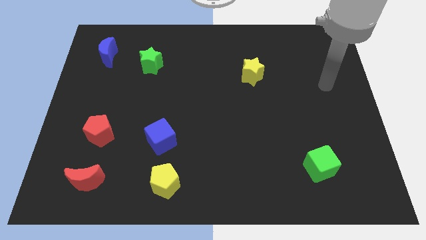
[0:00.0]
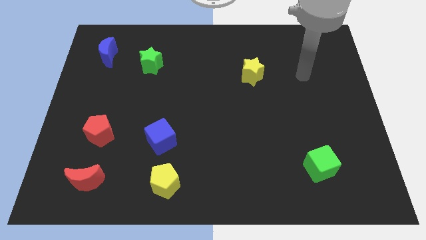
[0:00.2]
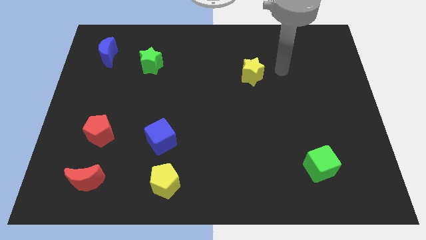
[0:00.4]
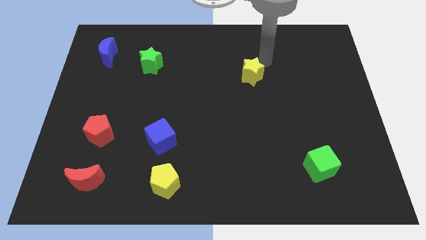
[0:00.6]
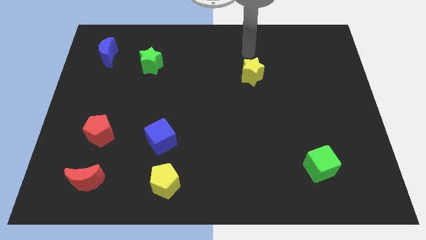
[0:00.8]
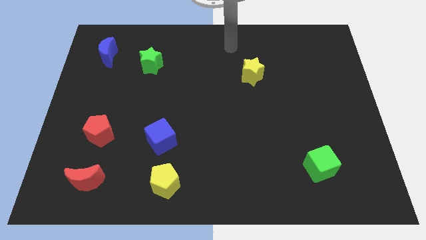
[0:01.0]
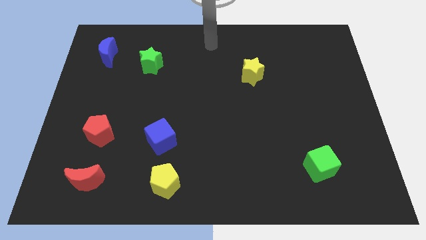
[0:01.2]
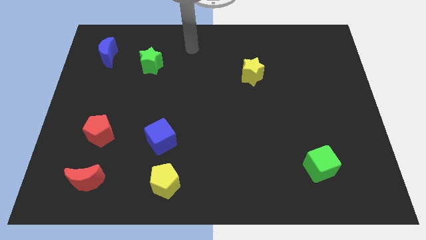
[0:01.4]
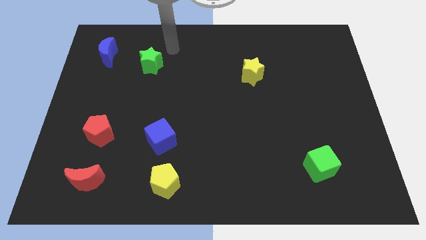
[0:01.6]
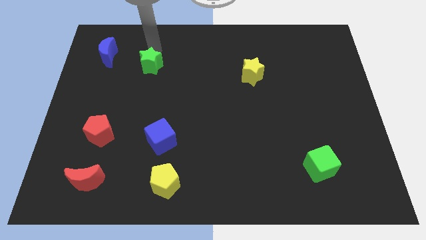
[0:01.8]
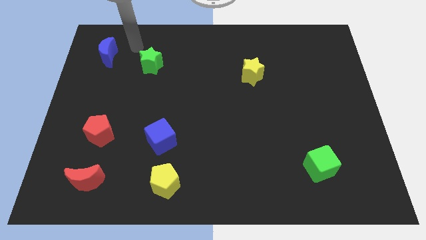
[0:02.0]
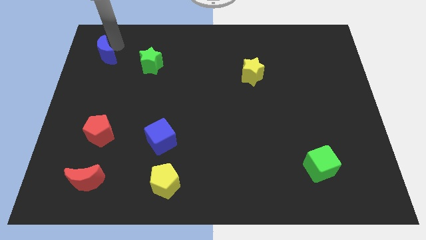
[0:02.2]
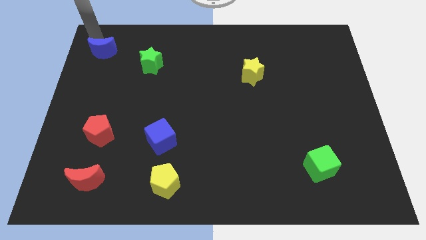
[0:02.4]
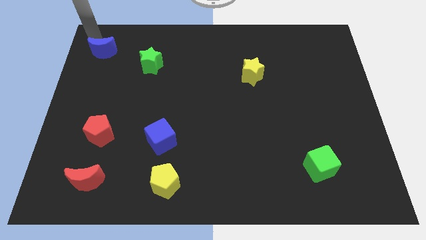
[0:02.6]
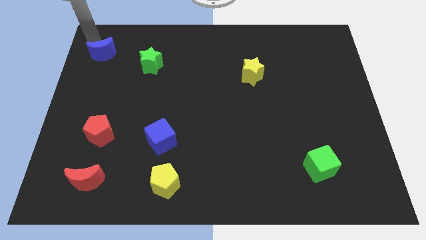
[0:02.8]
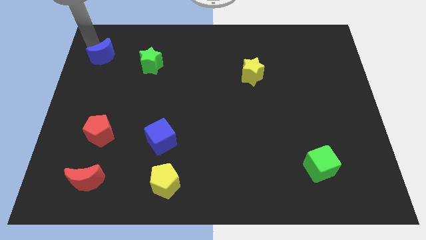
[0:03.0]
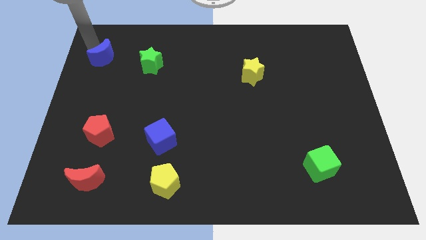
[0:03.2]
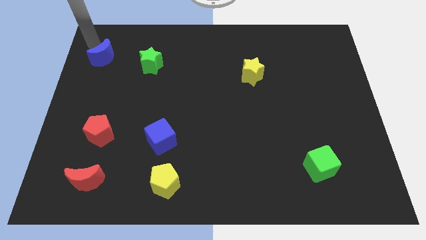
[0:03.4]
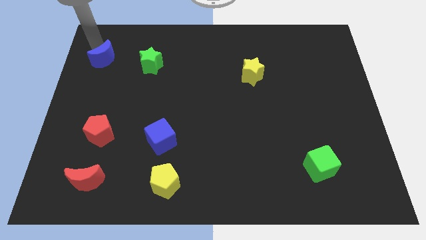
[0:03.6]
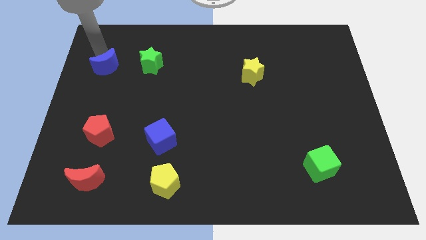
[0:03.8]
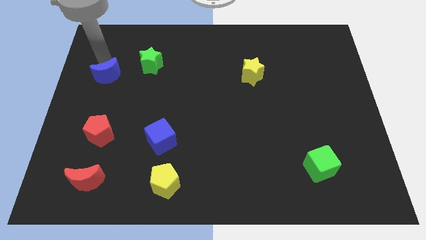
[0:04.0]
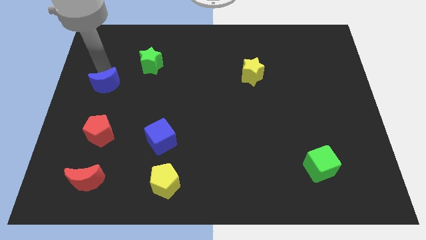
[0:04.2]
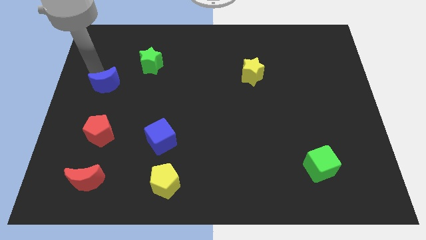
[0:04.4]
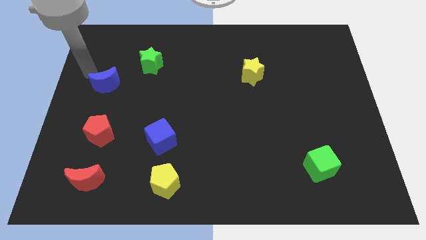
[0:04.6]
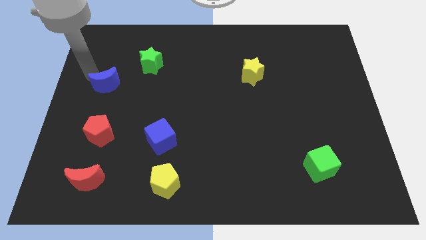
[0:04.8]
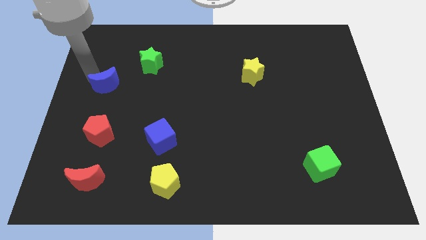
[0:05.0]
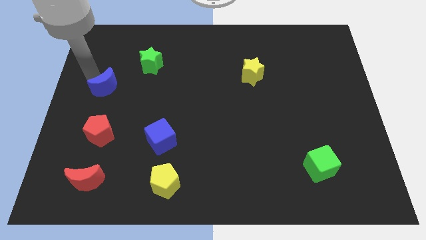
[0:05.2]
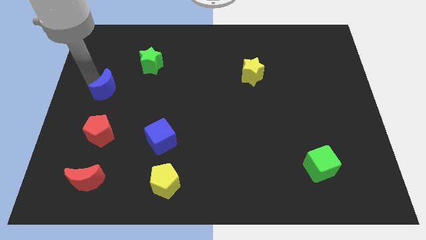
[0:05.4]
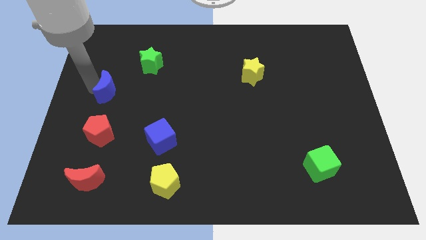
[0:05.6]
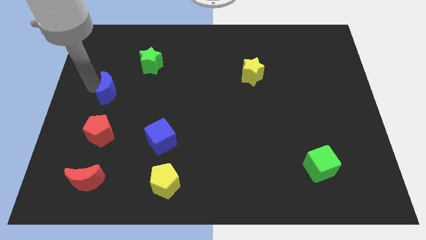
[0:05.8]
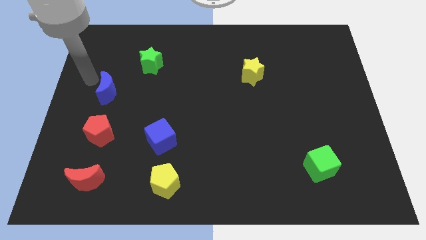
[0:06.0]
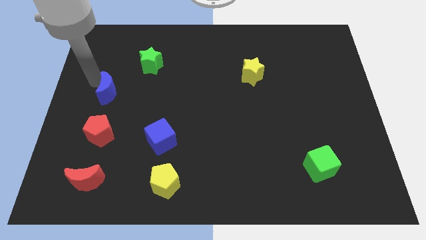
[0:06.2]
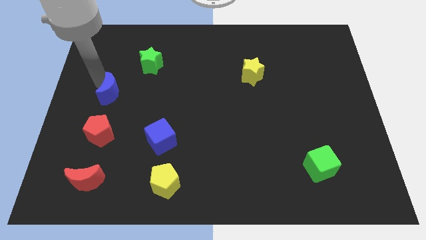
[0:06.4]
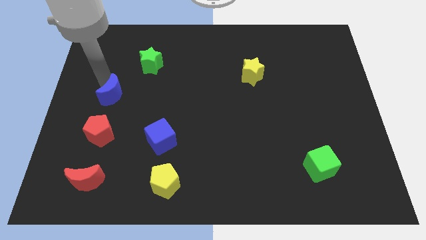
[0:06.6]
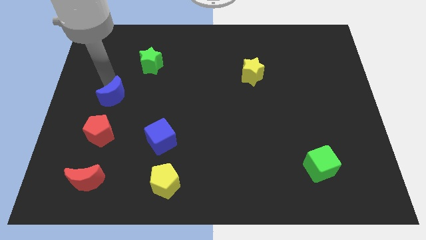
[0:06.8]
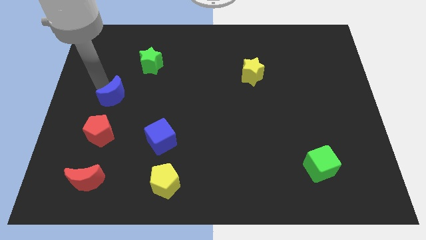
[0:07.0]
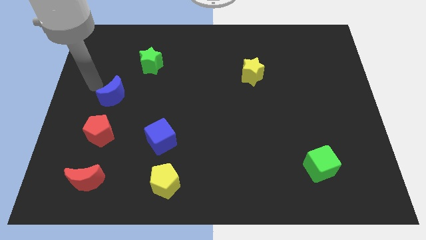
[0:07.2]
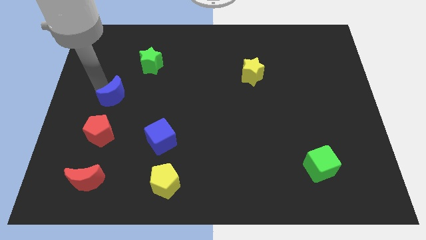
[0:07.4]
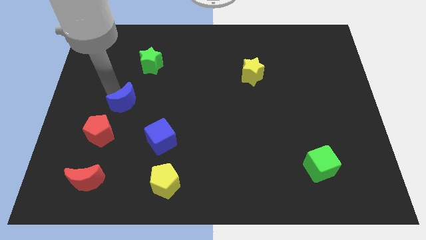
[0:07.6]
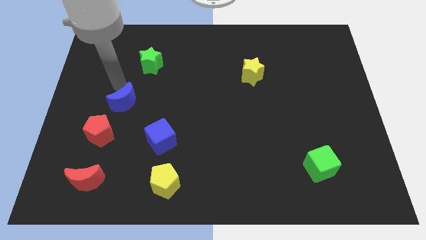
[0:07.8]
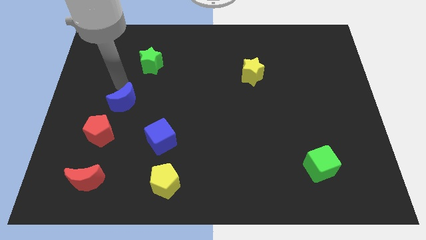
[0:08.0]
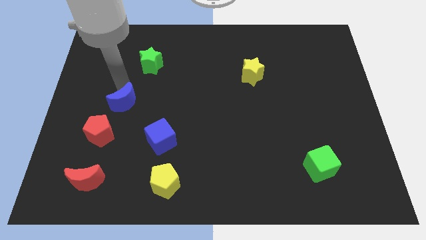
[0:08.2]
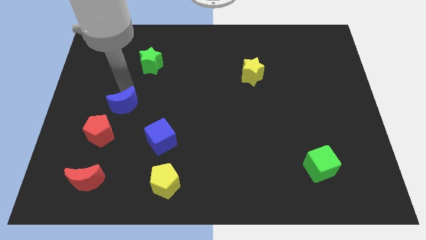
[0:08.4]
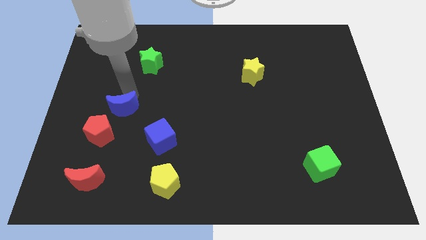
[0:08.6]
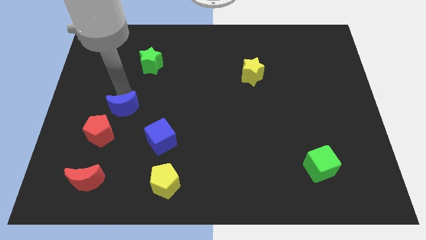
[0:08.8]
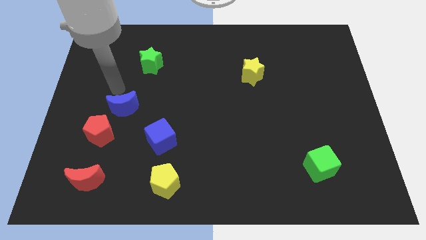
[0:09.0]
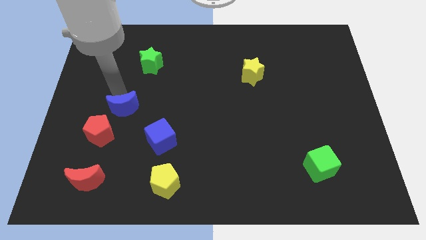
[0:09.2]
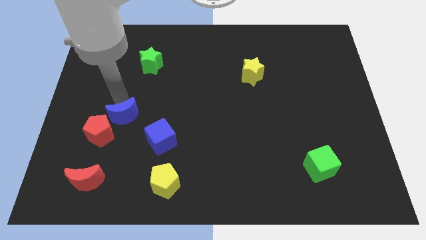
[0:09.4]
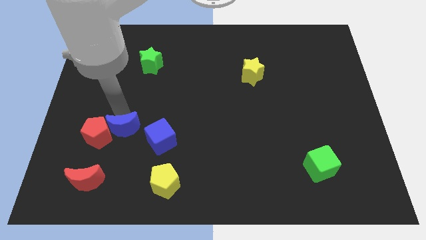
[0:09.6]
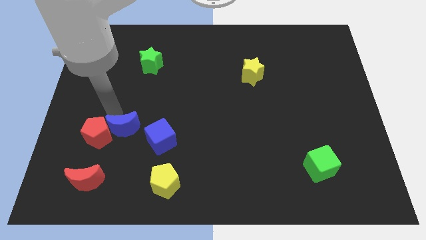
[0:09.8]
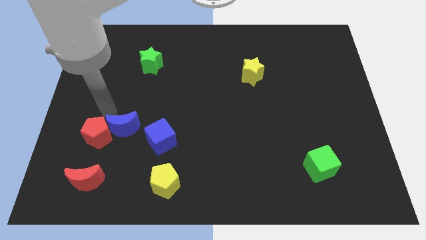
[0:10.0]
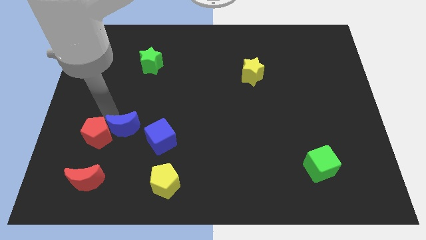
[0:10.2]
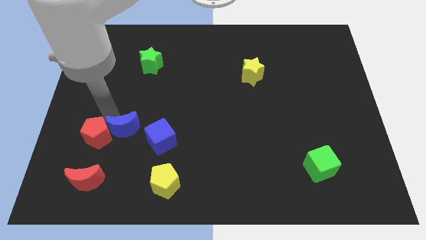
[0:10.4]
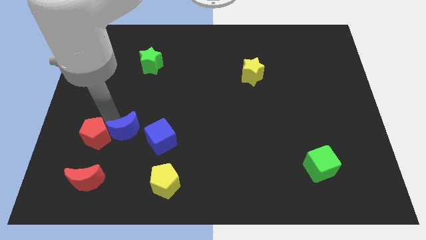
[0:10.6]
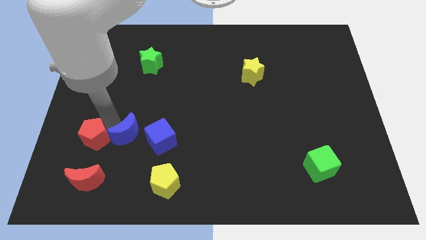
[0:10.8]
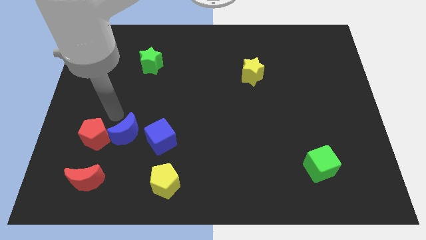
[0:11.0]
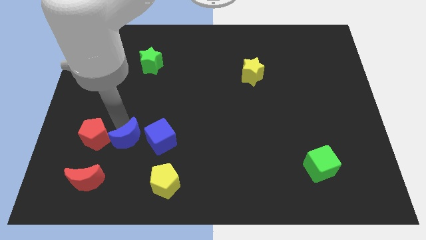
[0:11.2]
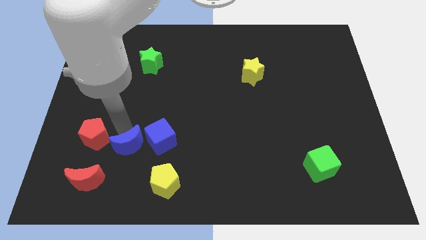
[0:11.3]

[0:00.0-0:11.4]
push the blue moon diagonally up and to the left of the yellow pentagon

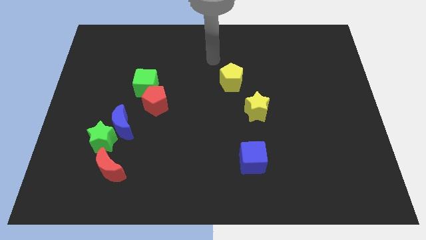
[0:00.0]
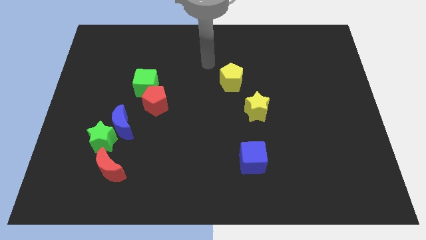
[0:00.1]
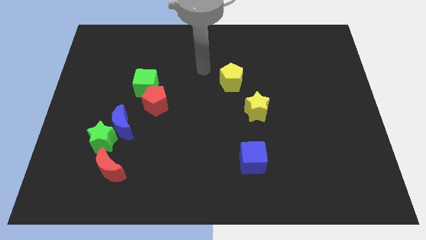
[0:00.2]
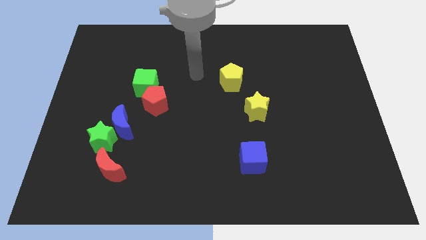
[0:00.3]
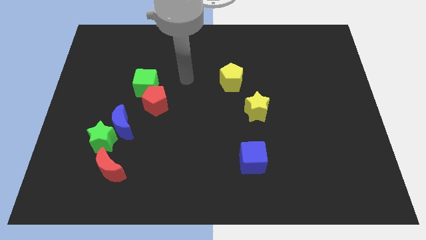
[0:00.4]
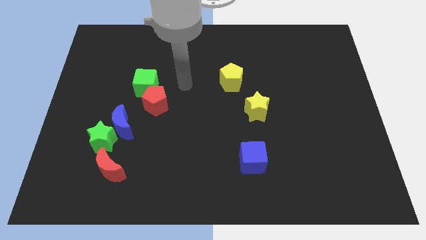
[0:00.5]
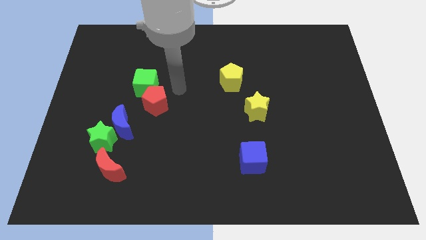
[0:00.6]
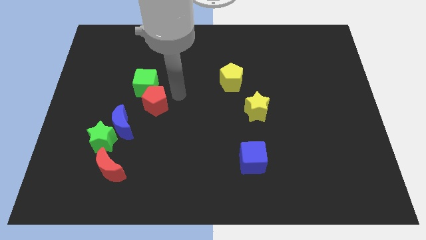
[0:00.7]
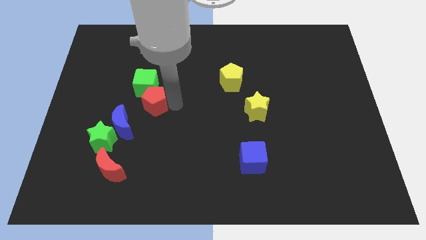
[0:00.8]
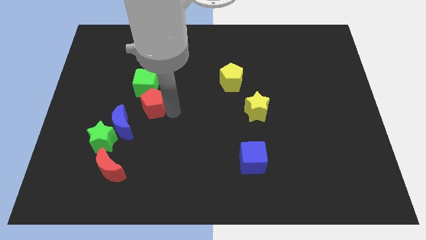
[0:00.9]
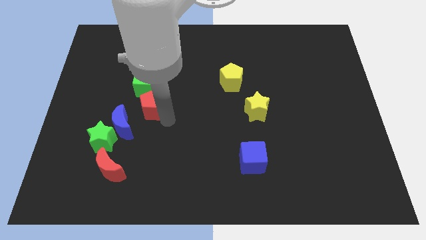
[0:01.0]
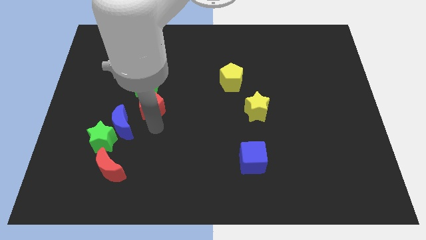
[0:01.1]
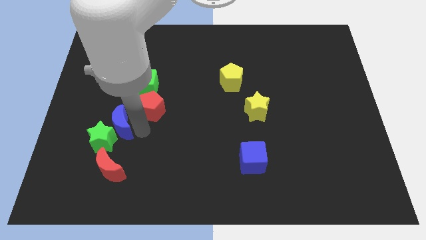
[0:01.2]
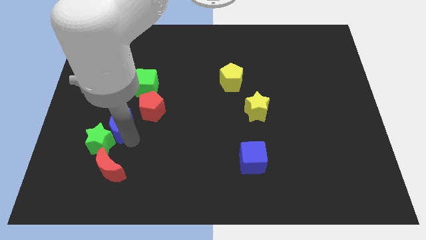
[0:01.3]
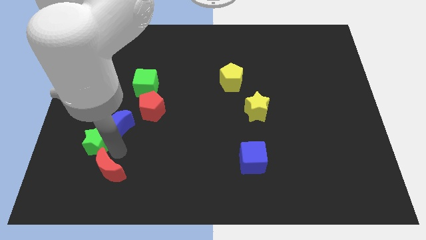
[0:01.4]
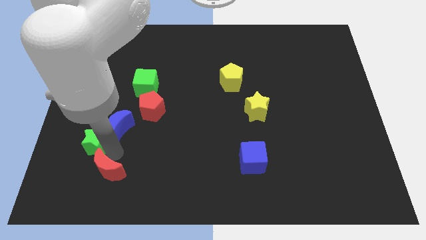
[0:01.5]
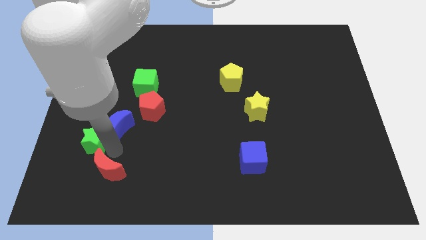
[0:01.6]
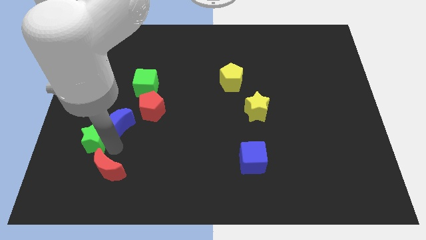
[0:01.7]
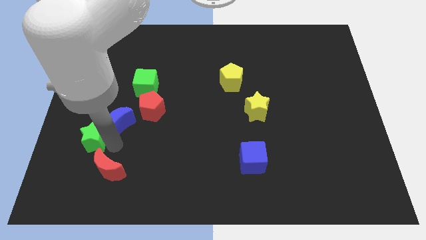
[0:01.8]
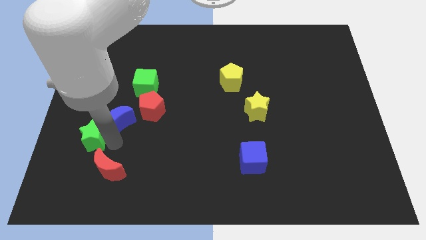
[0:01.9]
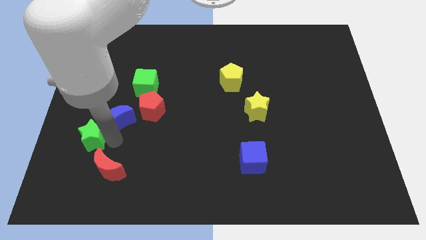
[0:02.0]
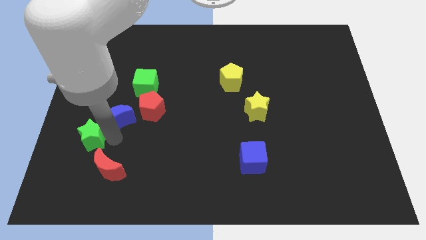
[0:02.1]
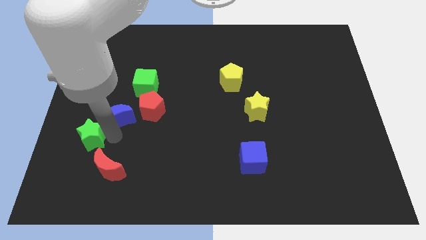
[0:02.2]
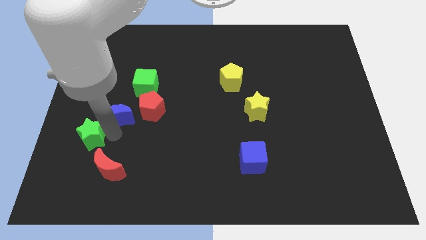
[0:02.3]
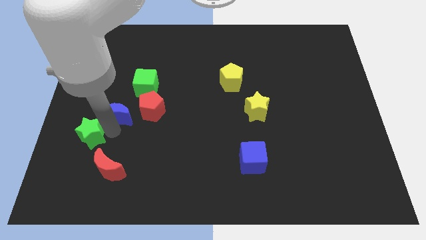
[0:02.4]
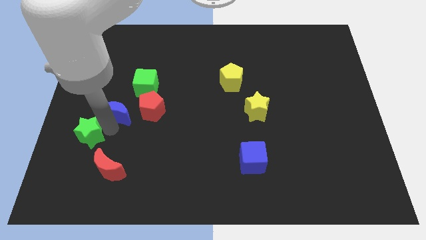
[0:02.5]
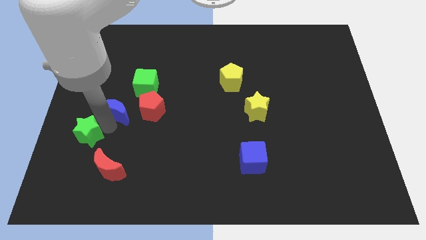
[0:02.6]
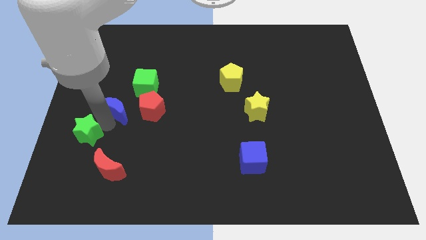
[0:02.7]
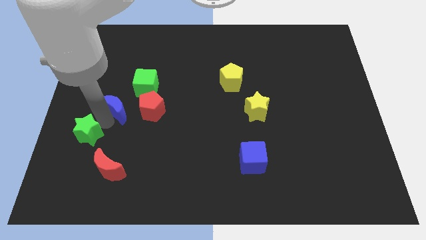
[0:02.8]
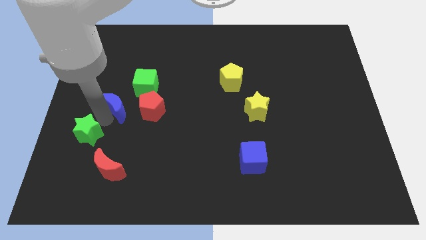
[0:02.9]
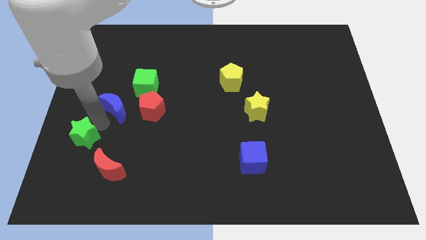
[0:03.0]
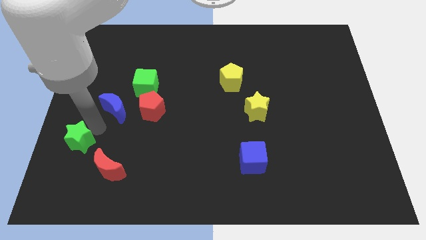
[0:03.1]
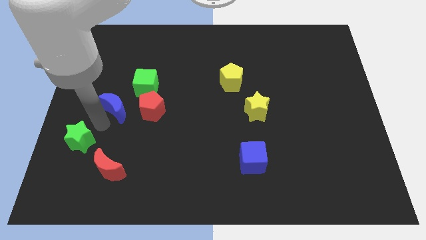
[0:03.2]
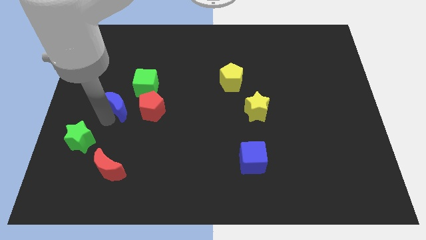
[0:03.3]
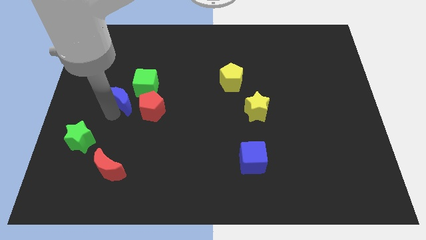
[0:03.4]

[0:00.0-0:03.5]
push the blue moon to the top left of the red pentagon
